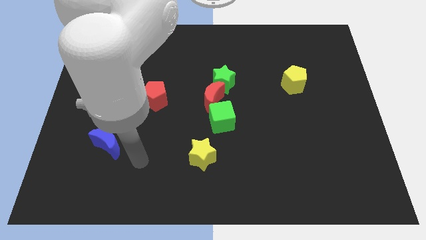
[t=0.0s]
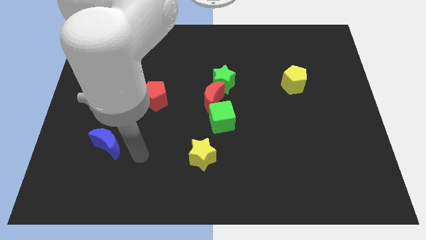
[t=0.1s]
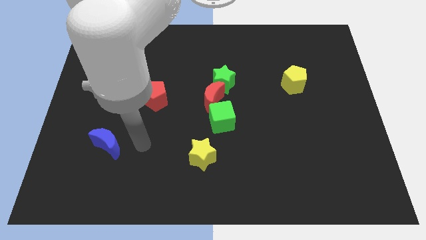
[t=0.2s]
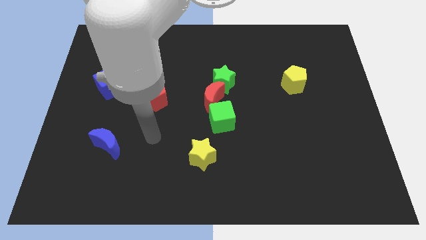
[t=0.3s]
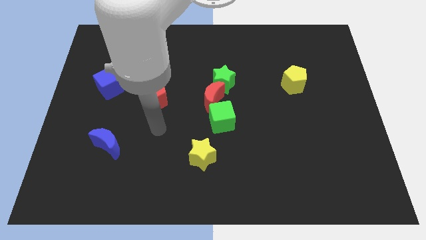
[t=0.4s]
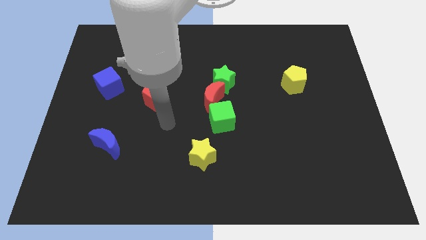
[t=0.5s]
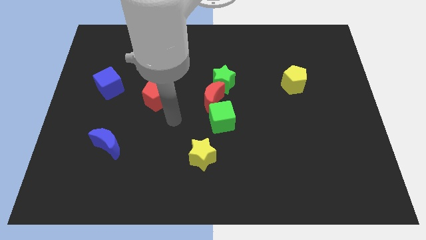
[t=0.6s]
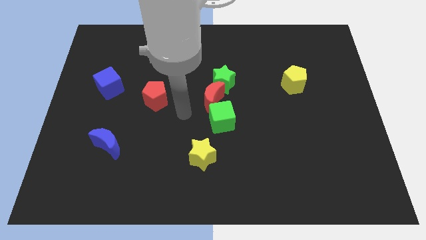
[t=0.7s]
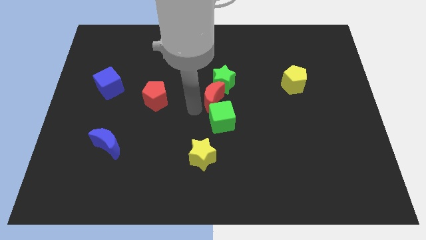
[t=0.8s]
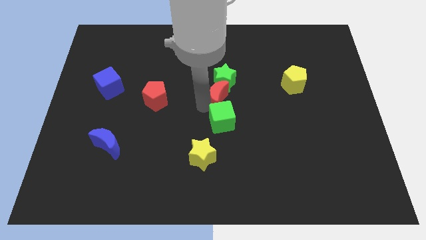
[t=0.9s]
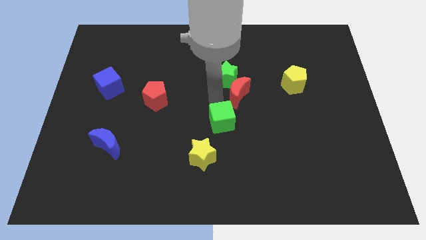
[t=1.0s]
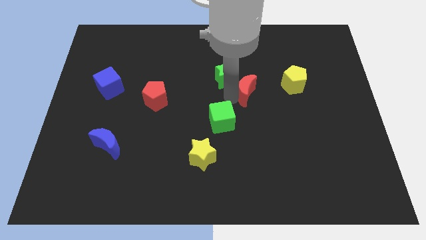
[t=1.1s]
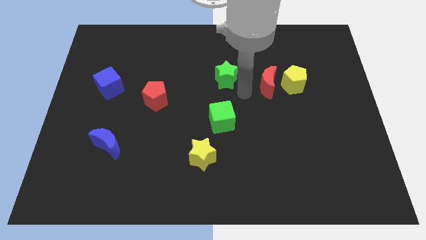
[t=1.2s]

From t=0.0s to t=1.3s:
pull the green star apart from the red moon

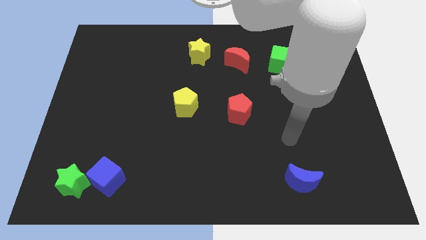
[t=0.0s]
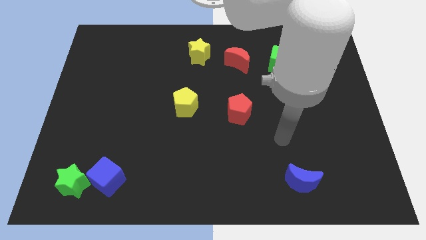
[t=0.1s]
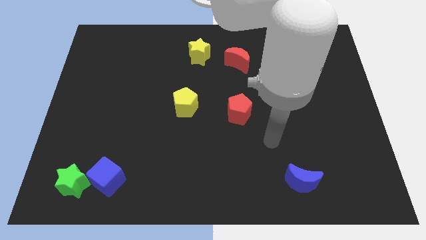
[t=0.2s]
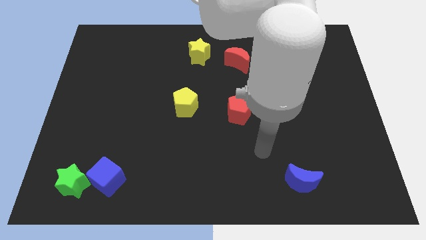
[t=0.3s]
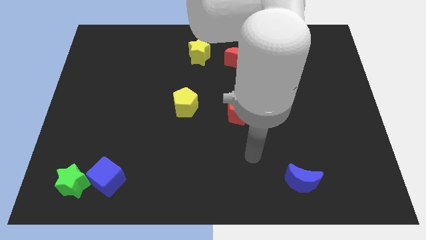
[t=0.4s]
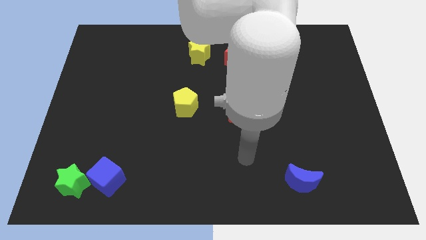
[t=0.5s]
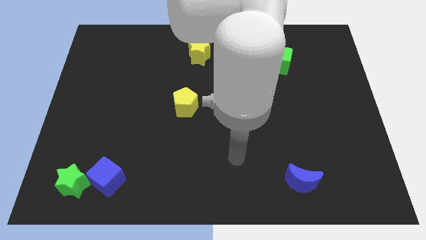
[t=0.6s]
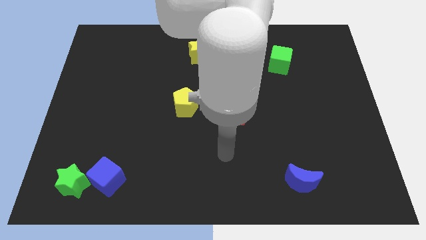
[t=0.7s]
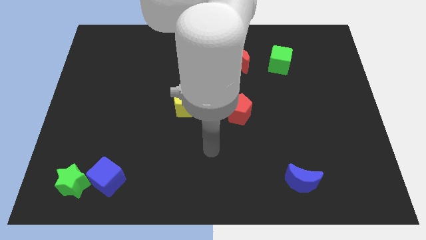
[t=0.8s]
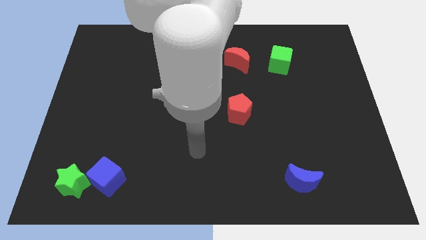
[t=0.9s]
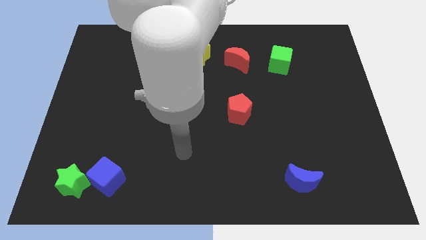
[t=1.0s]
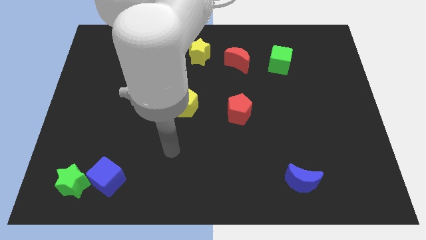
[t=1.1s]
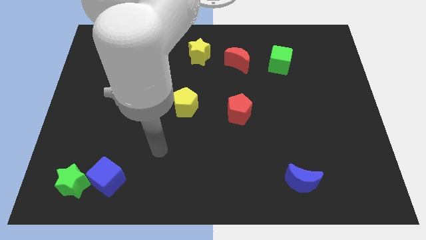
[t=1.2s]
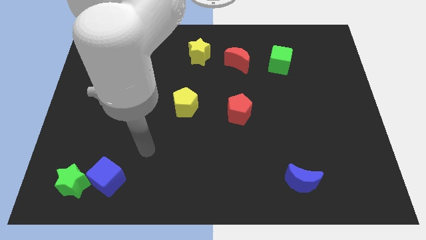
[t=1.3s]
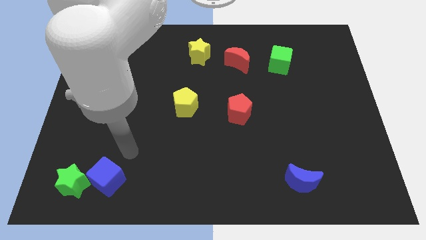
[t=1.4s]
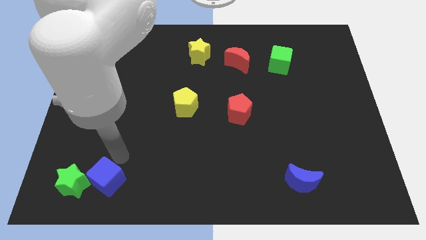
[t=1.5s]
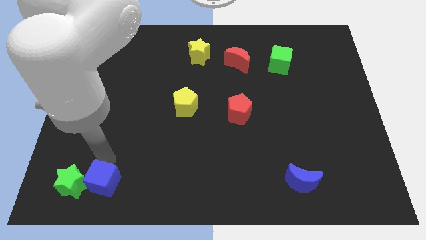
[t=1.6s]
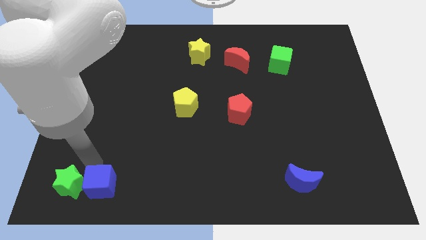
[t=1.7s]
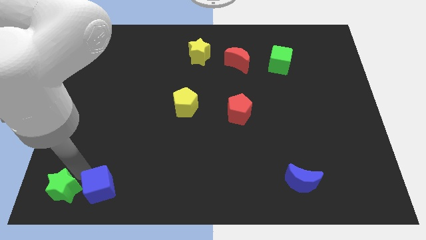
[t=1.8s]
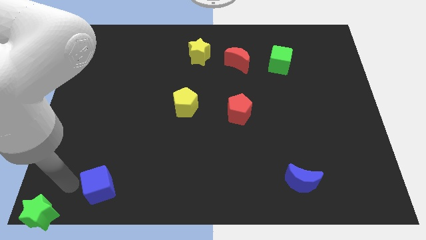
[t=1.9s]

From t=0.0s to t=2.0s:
pull the blue cube apart from the green star

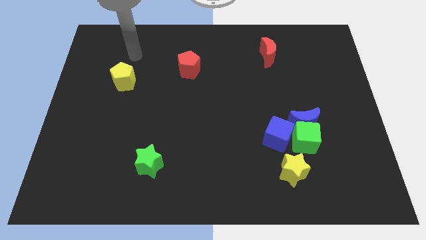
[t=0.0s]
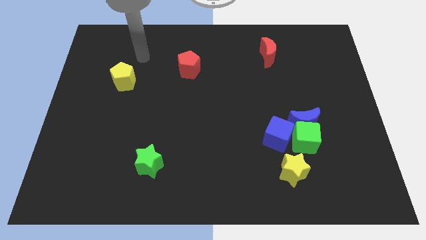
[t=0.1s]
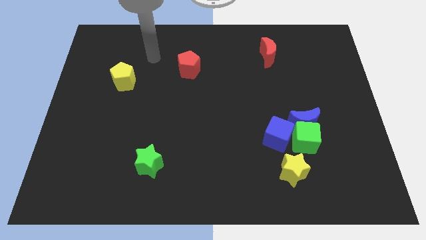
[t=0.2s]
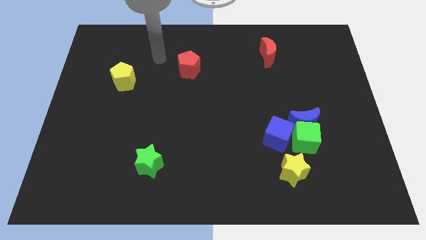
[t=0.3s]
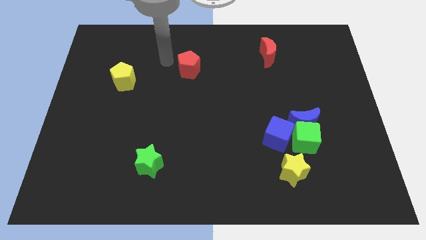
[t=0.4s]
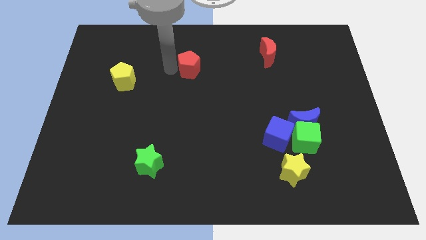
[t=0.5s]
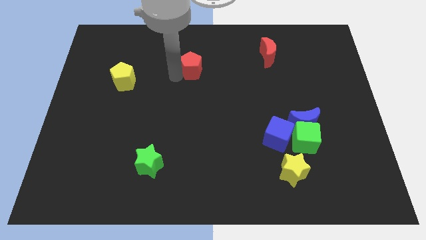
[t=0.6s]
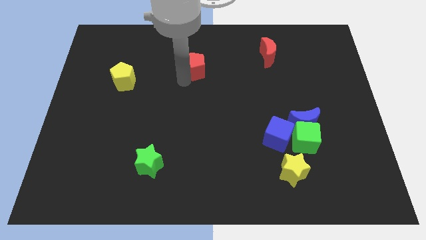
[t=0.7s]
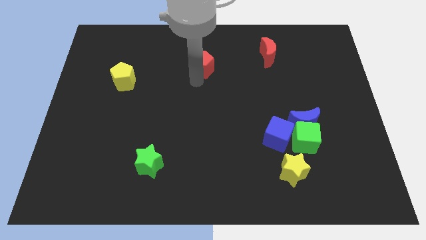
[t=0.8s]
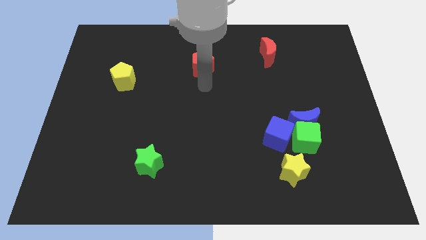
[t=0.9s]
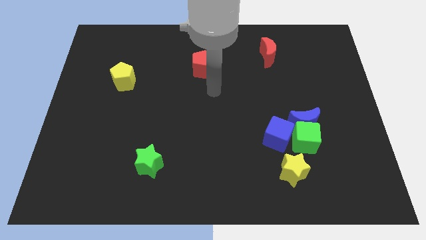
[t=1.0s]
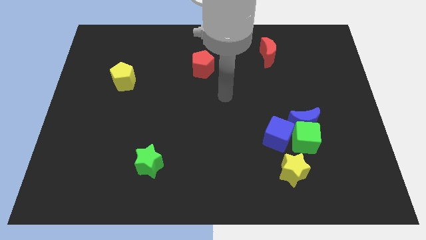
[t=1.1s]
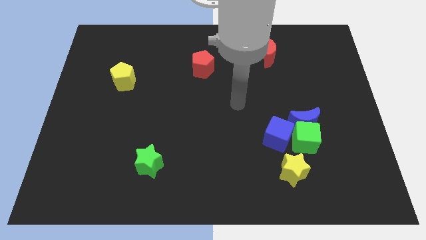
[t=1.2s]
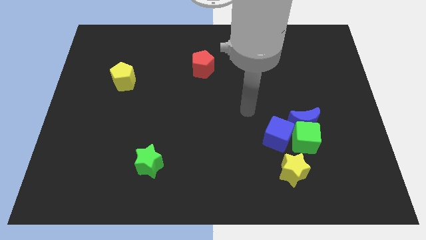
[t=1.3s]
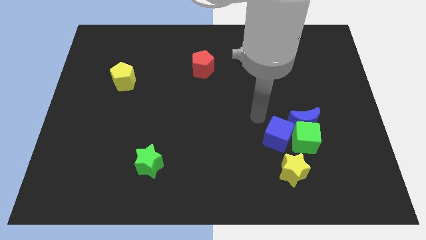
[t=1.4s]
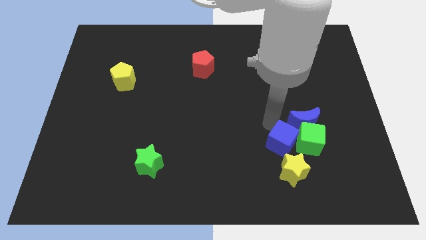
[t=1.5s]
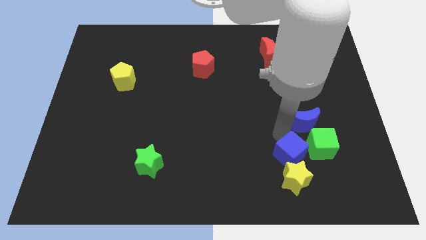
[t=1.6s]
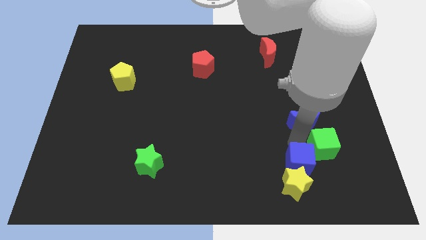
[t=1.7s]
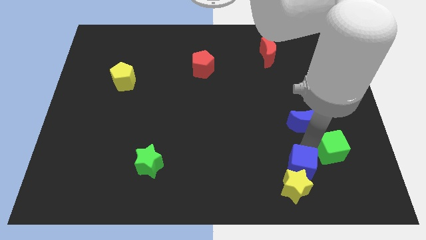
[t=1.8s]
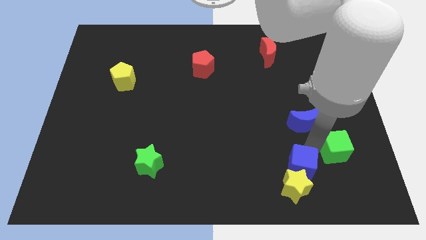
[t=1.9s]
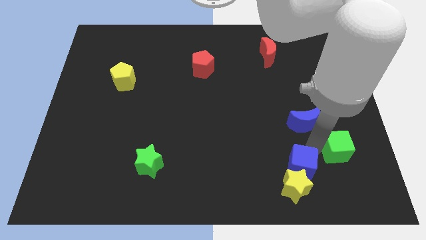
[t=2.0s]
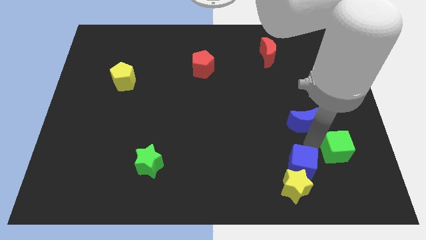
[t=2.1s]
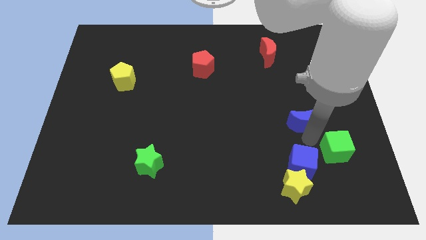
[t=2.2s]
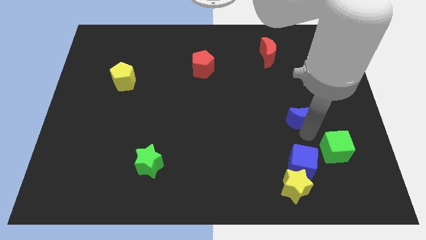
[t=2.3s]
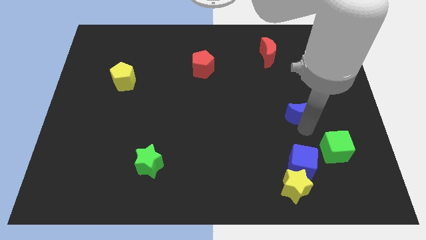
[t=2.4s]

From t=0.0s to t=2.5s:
move the blue moon away from the green cube and blue cube

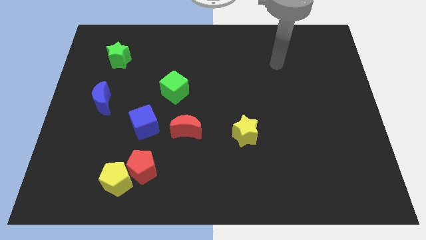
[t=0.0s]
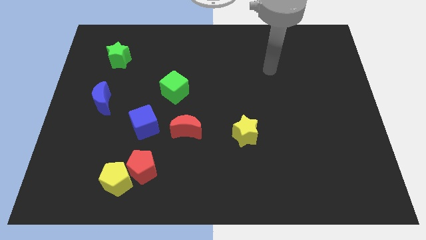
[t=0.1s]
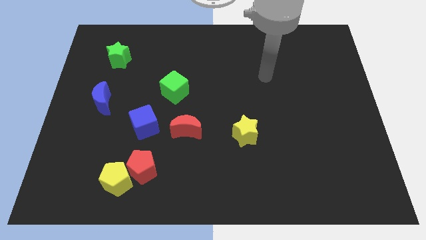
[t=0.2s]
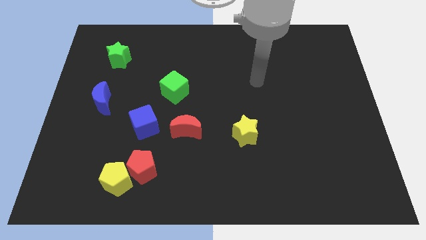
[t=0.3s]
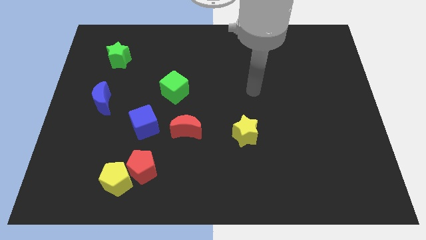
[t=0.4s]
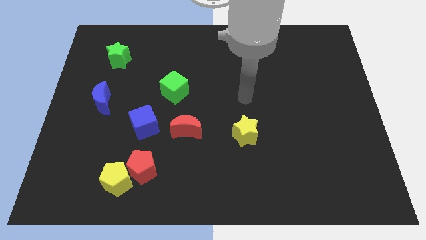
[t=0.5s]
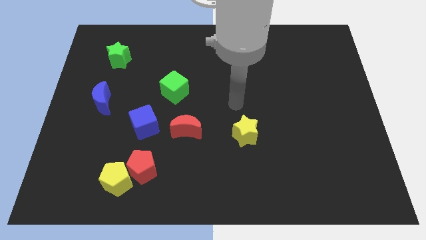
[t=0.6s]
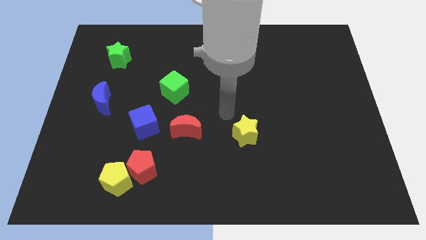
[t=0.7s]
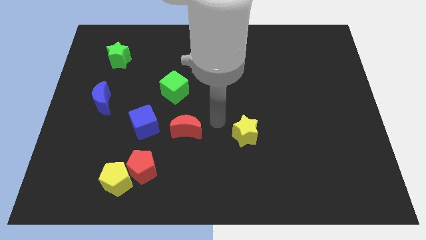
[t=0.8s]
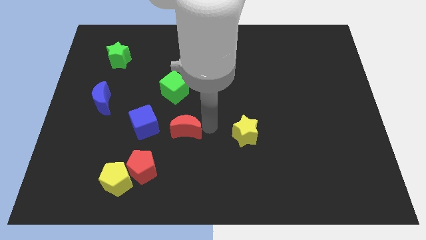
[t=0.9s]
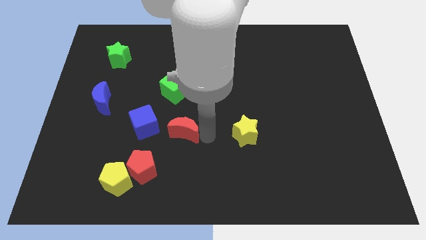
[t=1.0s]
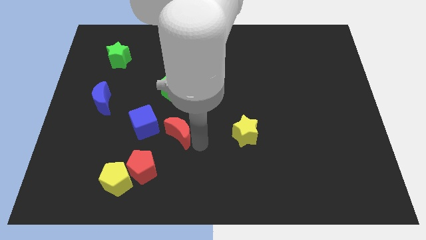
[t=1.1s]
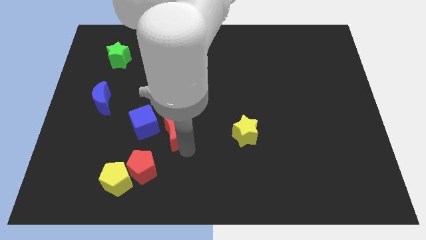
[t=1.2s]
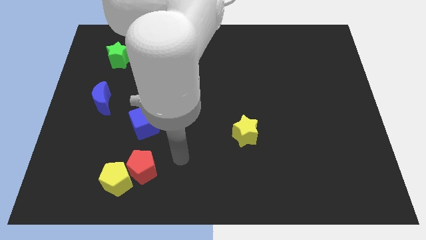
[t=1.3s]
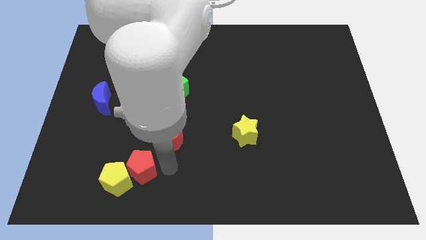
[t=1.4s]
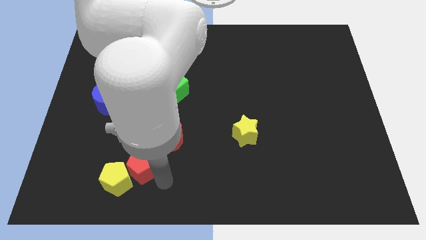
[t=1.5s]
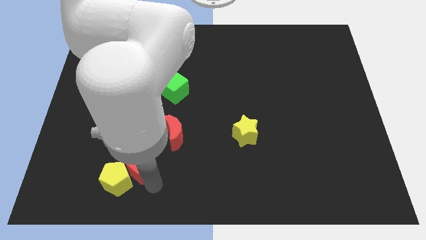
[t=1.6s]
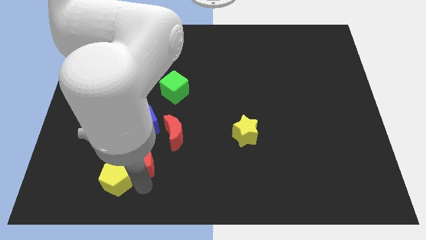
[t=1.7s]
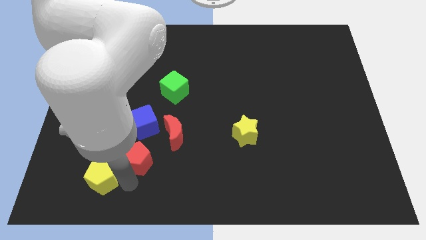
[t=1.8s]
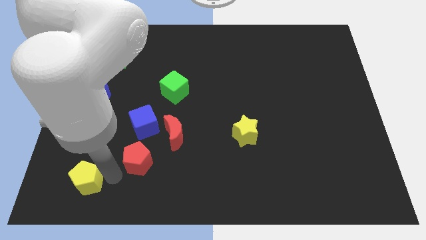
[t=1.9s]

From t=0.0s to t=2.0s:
pull the red pentagon apart from the yellow pentagon

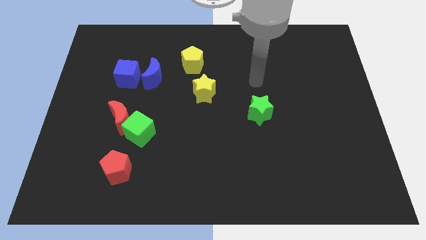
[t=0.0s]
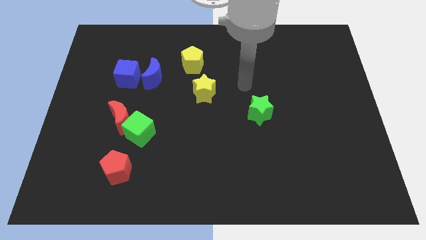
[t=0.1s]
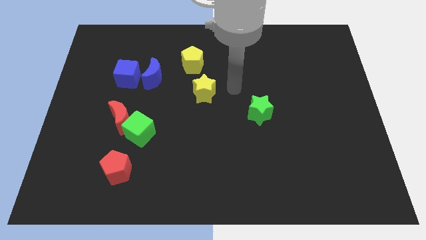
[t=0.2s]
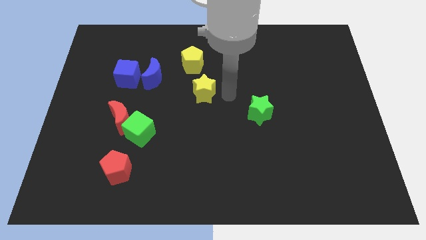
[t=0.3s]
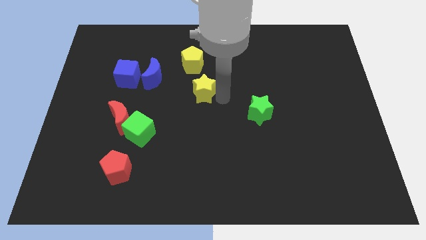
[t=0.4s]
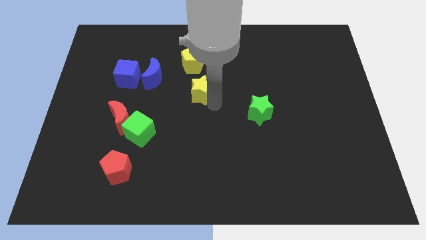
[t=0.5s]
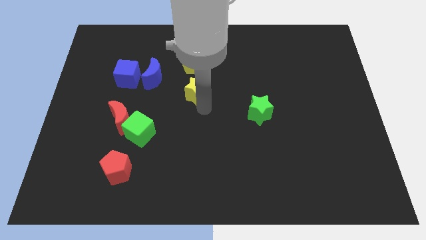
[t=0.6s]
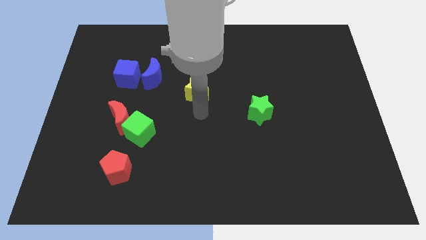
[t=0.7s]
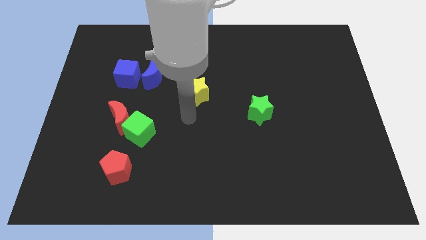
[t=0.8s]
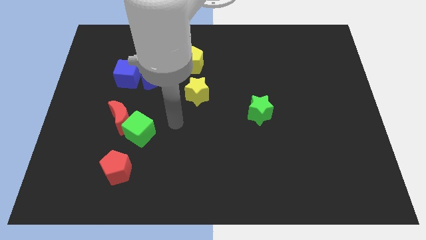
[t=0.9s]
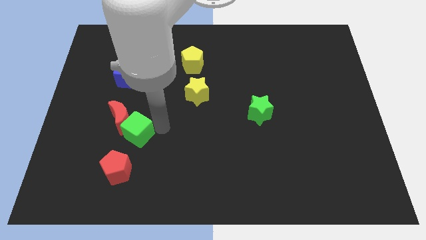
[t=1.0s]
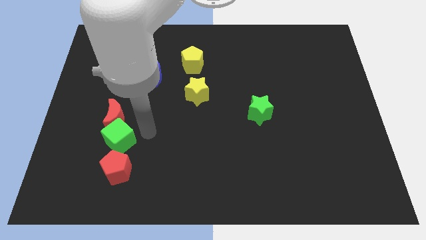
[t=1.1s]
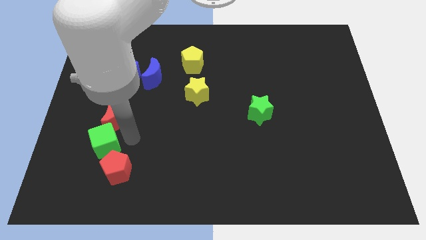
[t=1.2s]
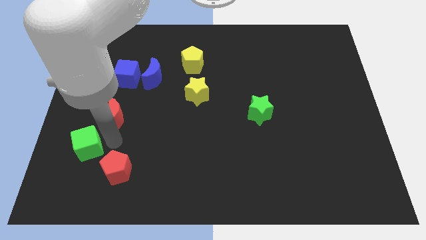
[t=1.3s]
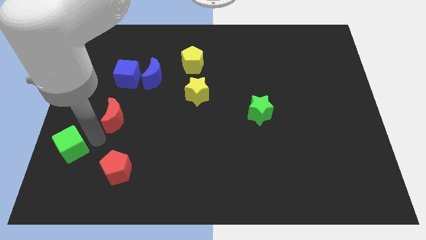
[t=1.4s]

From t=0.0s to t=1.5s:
move the red moon away from the green cube
